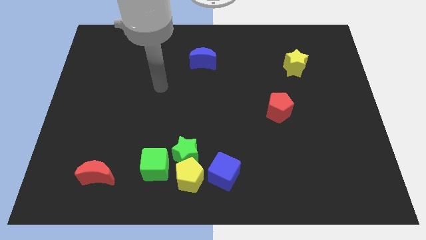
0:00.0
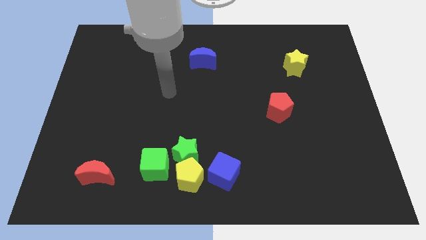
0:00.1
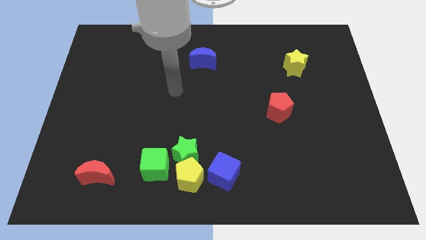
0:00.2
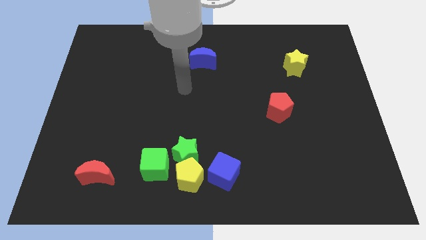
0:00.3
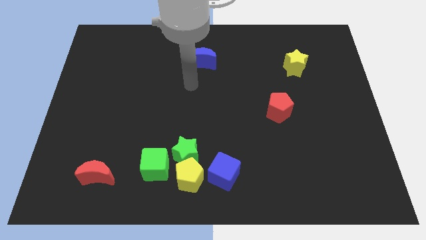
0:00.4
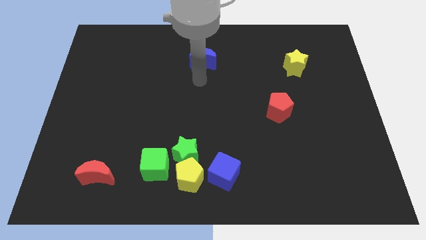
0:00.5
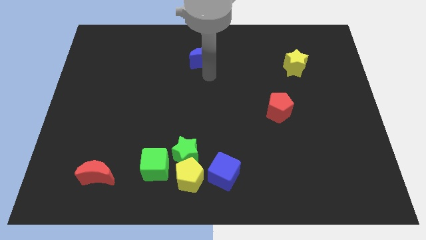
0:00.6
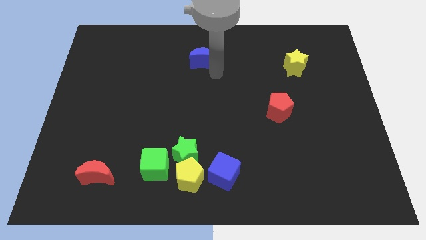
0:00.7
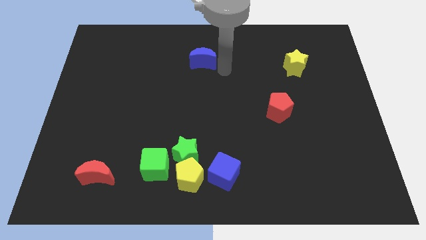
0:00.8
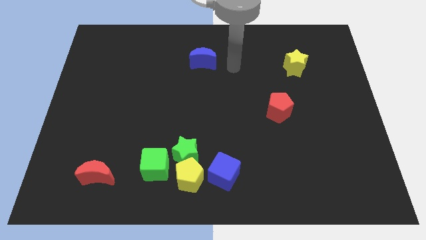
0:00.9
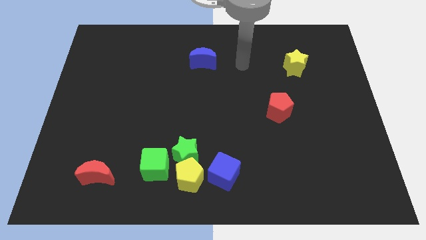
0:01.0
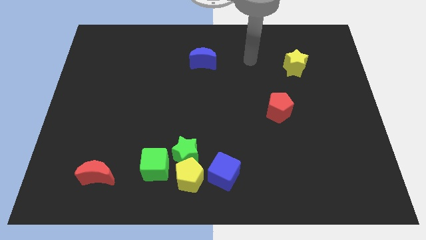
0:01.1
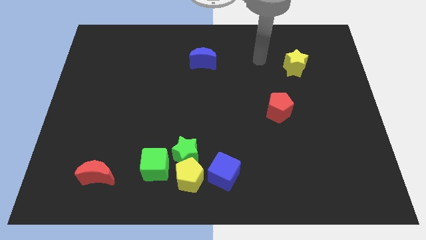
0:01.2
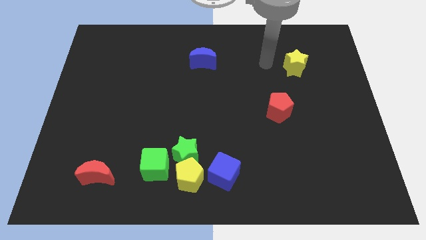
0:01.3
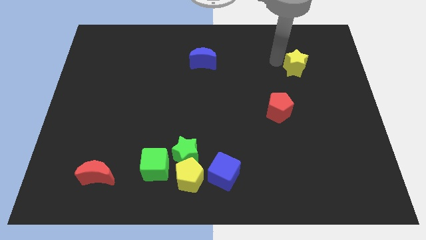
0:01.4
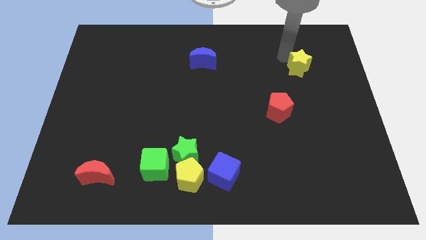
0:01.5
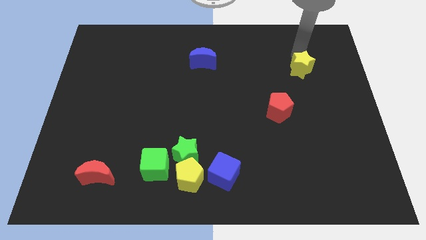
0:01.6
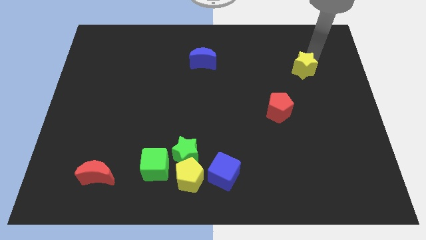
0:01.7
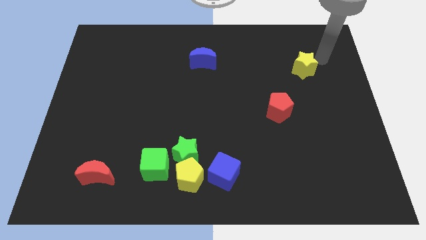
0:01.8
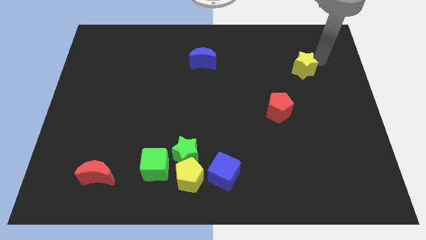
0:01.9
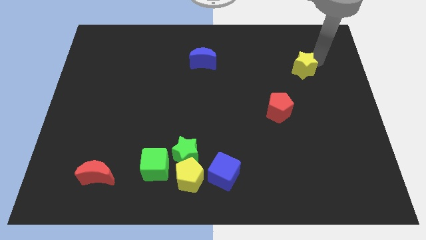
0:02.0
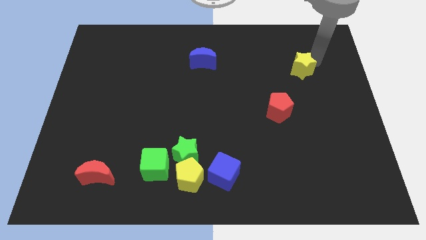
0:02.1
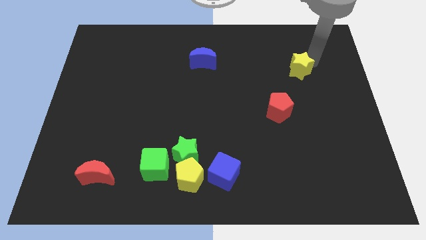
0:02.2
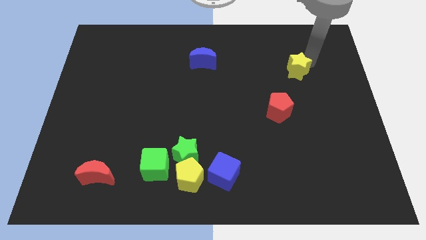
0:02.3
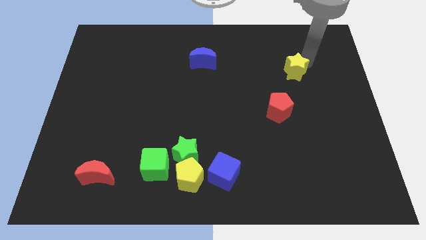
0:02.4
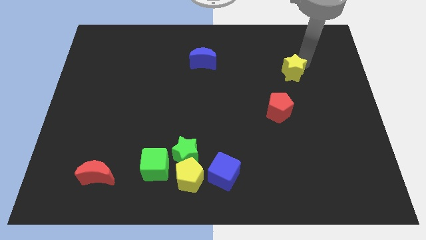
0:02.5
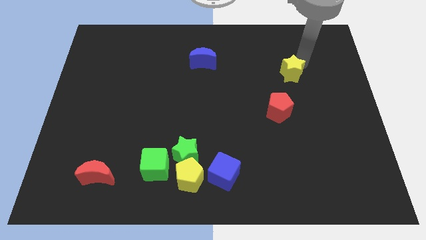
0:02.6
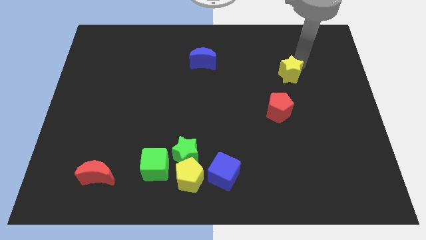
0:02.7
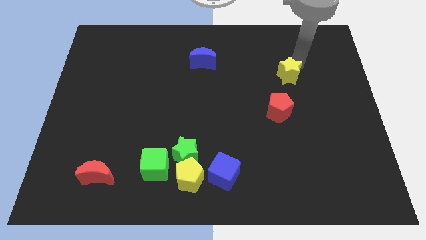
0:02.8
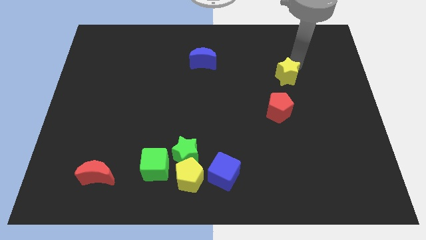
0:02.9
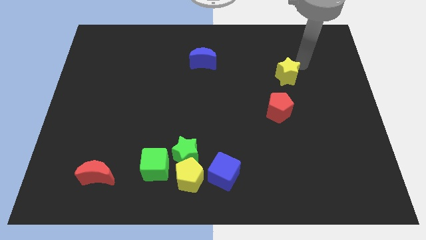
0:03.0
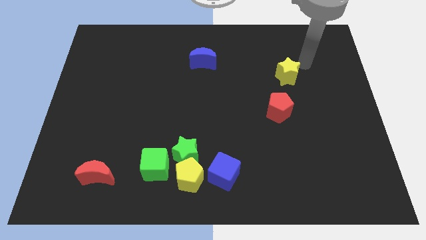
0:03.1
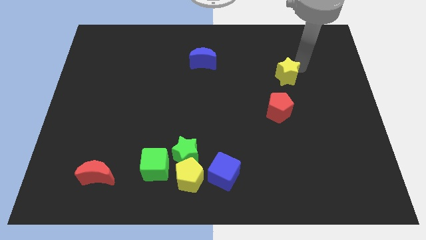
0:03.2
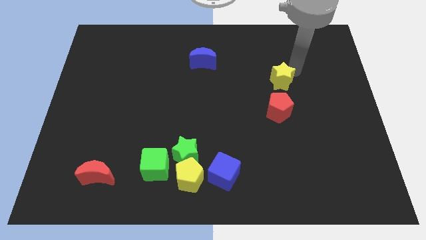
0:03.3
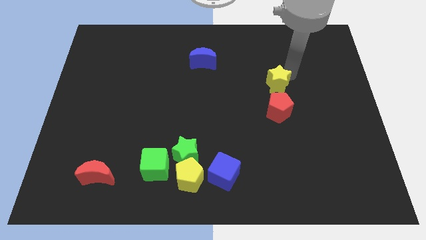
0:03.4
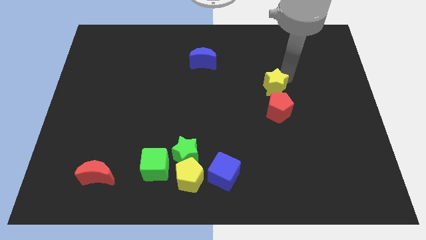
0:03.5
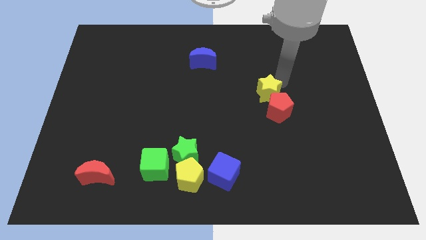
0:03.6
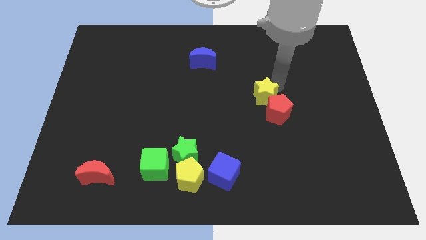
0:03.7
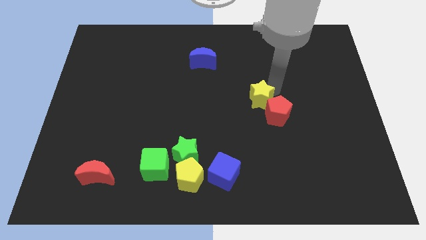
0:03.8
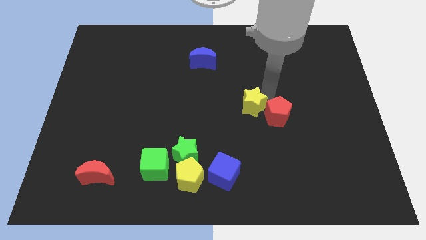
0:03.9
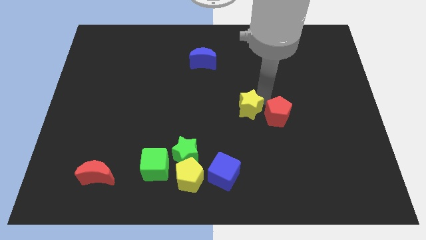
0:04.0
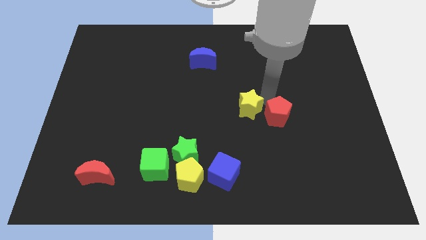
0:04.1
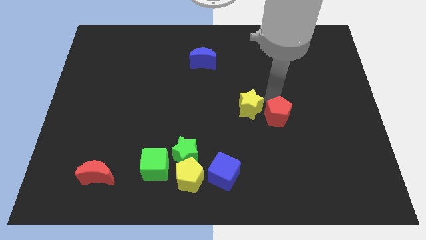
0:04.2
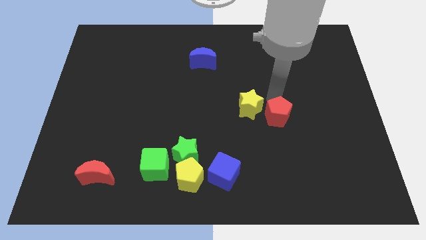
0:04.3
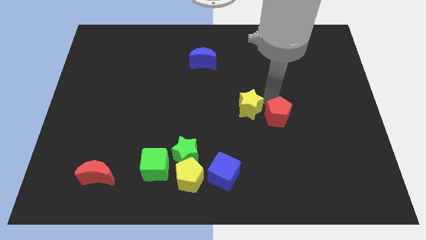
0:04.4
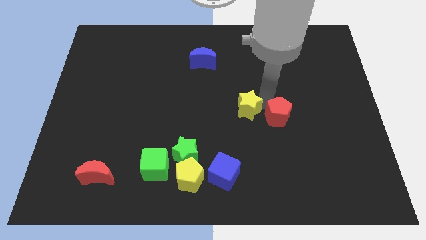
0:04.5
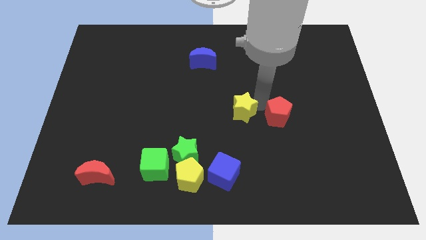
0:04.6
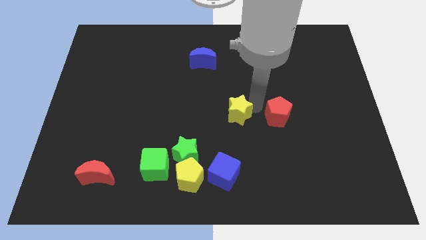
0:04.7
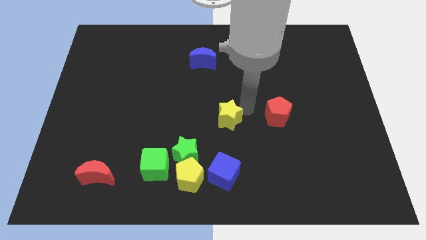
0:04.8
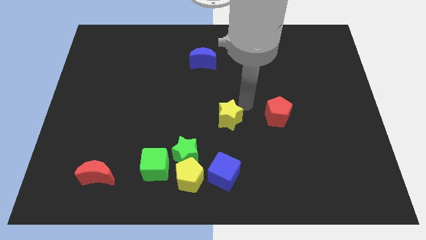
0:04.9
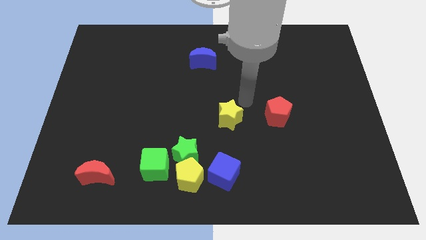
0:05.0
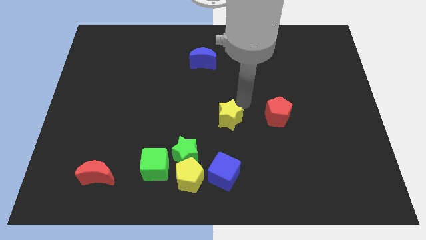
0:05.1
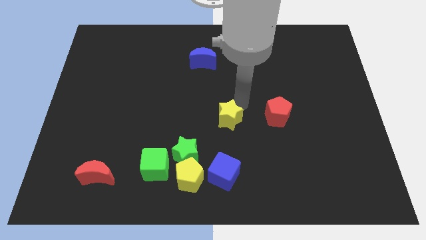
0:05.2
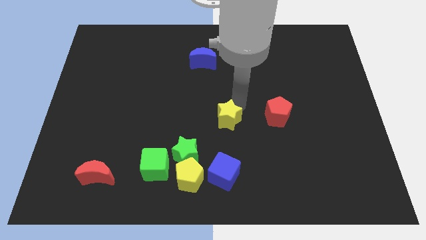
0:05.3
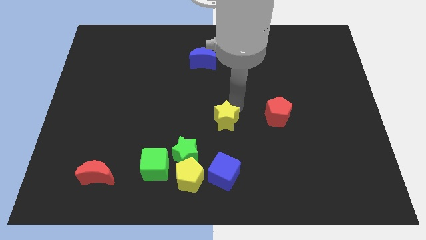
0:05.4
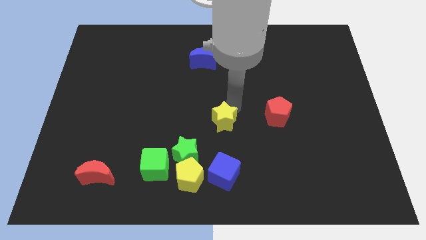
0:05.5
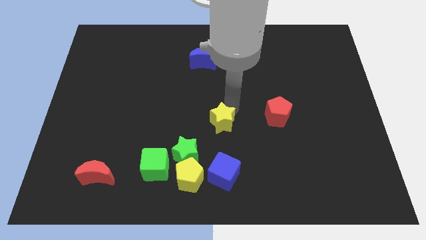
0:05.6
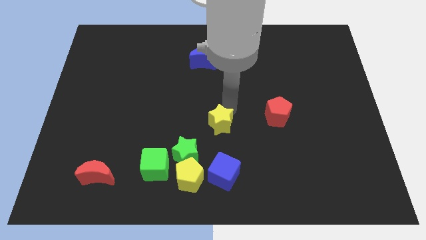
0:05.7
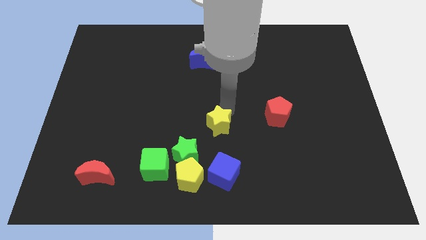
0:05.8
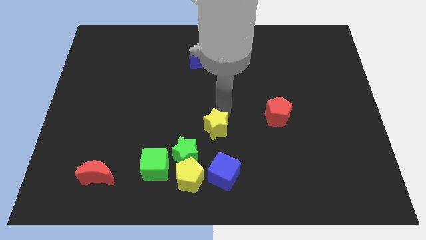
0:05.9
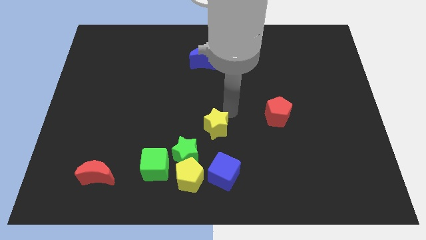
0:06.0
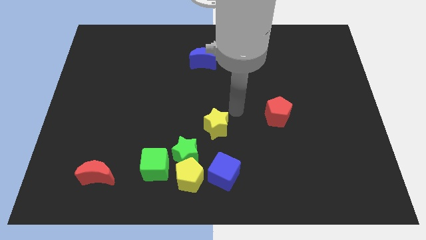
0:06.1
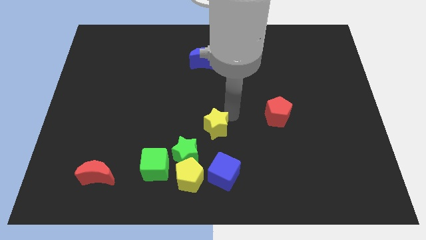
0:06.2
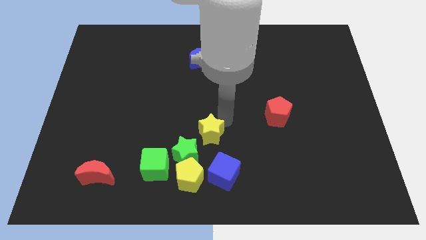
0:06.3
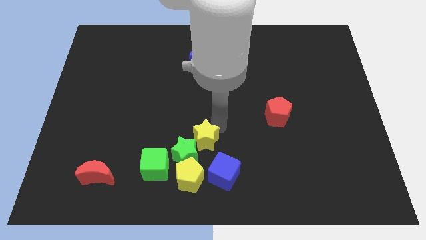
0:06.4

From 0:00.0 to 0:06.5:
put the yellow star towards the green star

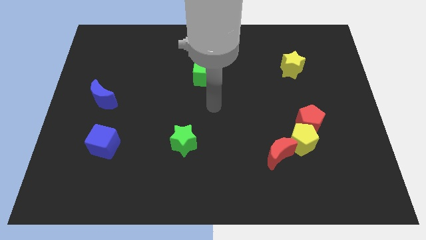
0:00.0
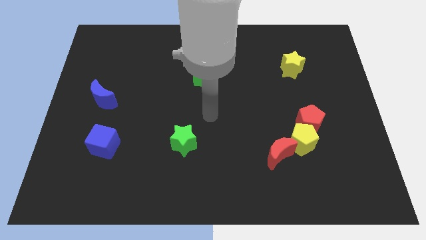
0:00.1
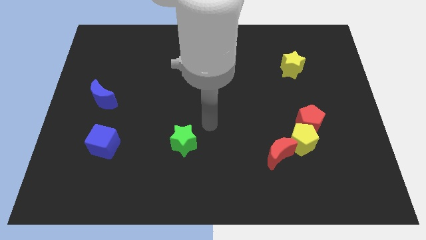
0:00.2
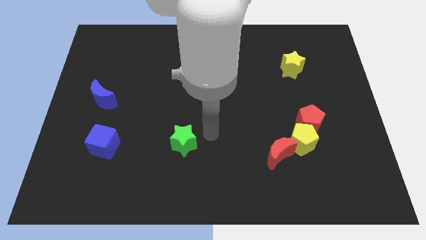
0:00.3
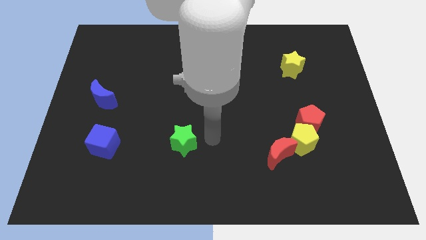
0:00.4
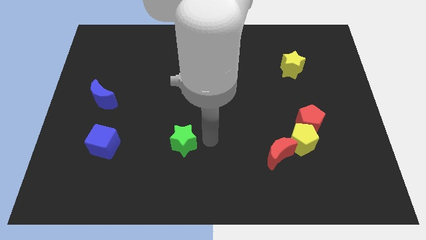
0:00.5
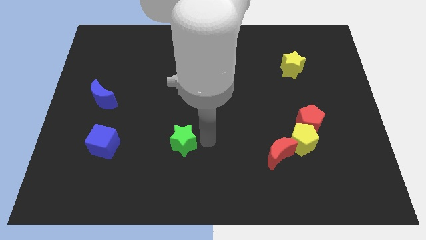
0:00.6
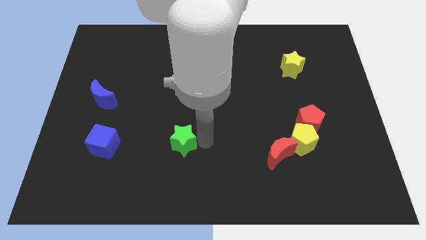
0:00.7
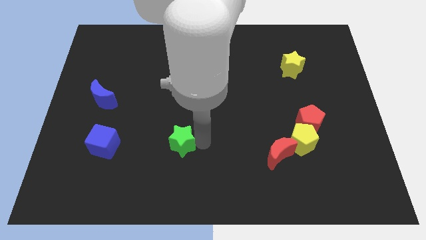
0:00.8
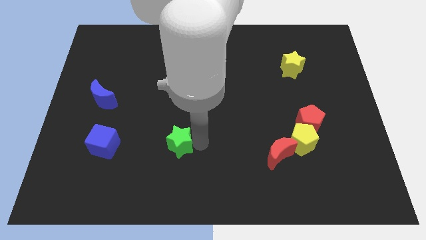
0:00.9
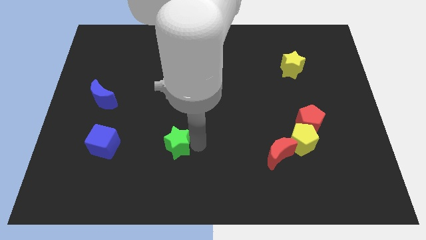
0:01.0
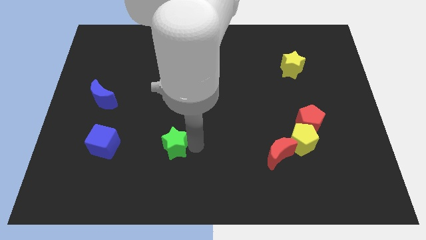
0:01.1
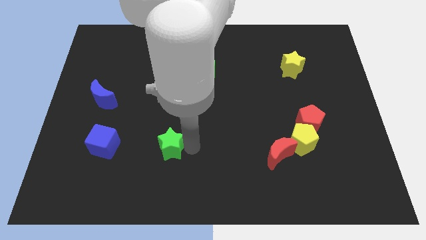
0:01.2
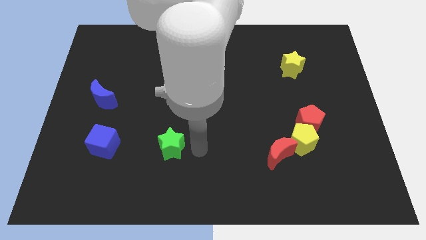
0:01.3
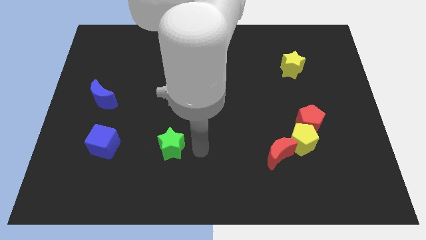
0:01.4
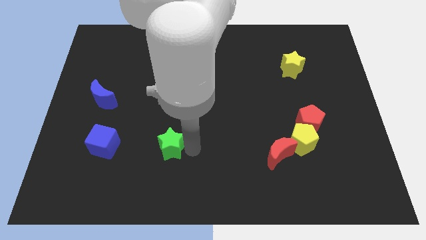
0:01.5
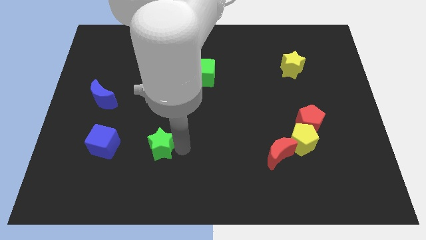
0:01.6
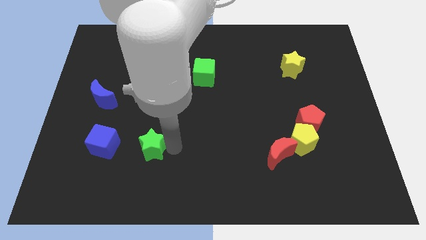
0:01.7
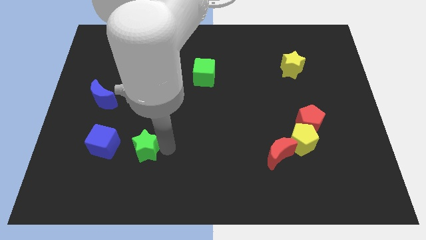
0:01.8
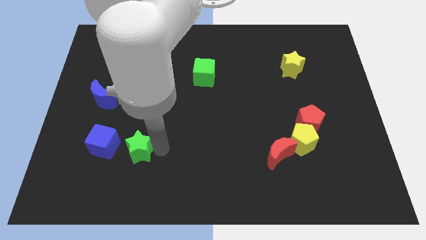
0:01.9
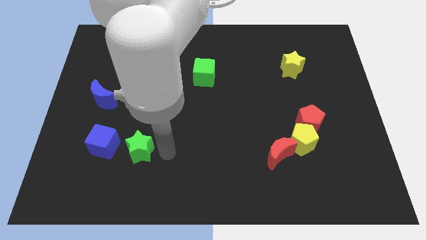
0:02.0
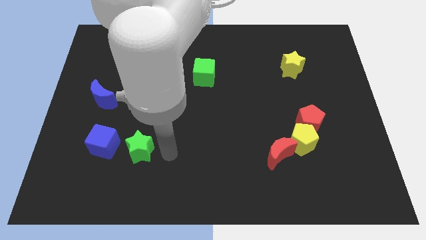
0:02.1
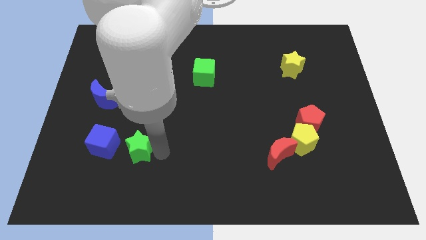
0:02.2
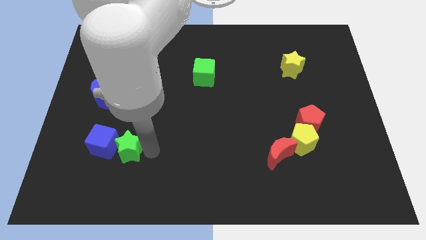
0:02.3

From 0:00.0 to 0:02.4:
push the green star next to the blue cube
